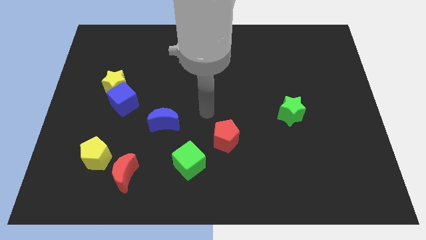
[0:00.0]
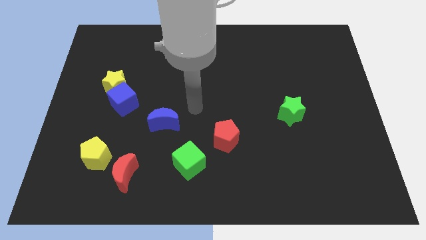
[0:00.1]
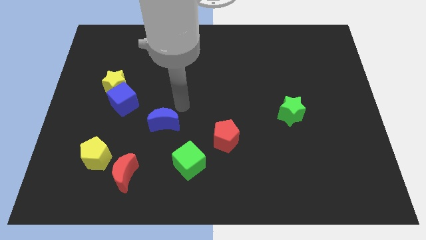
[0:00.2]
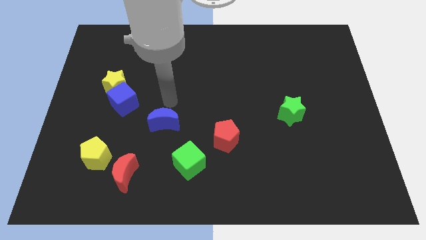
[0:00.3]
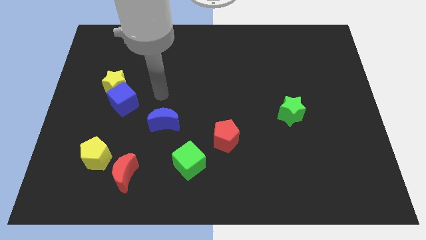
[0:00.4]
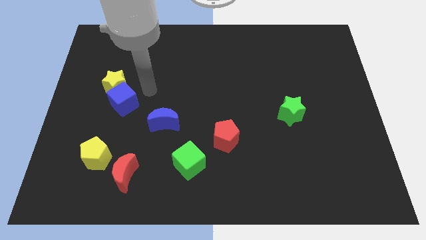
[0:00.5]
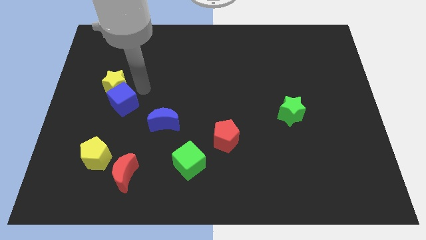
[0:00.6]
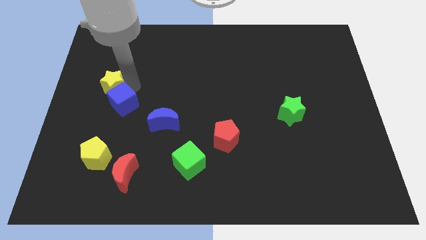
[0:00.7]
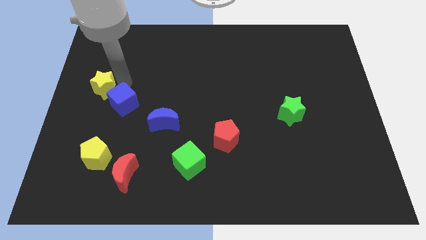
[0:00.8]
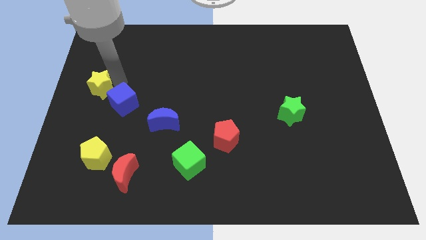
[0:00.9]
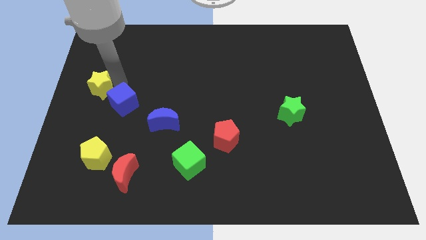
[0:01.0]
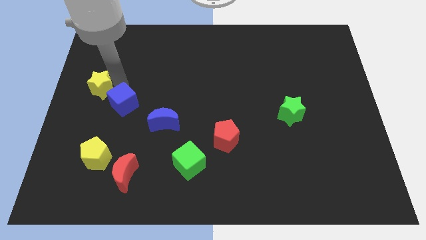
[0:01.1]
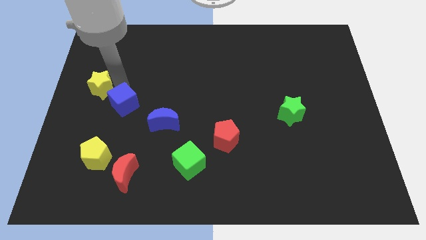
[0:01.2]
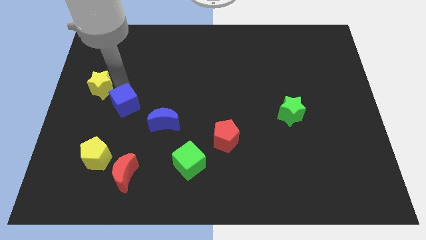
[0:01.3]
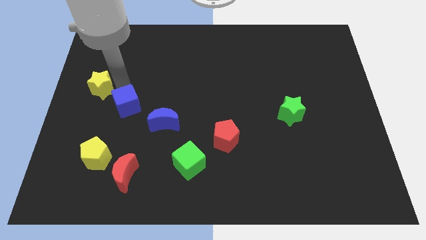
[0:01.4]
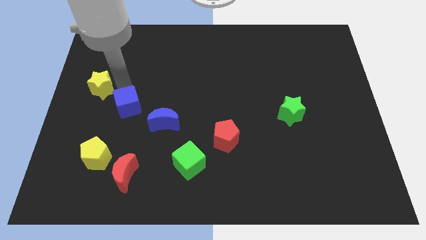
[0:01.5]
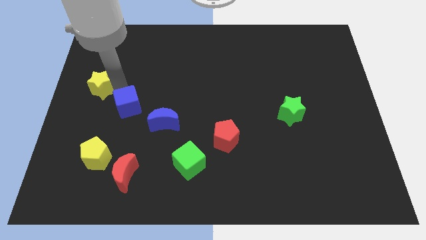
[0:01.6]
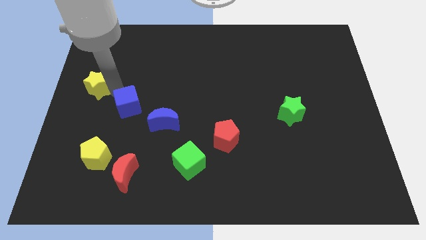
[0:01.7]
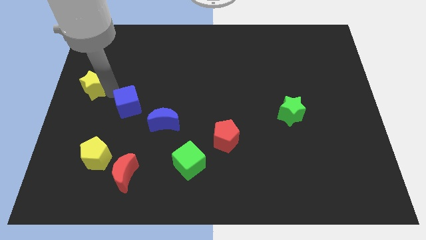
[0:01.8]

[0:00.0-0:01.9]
pull the blue cube apart from the yellow star

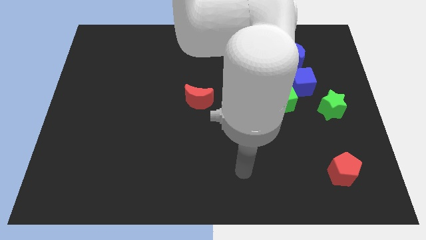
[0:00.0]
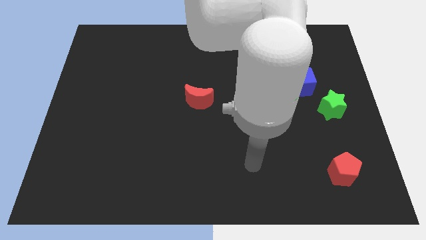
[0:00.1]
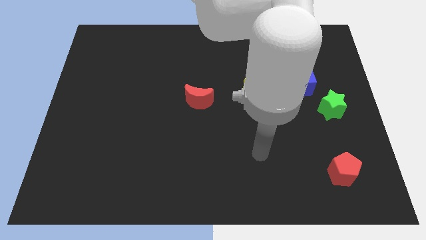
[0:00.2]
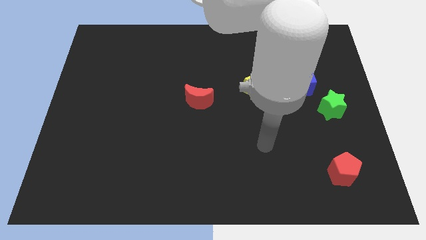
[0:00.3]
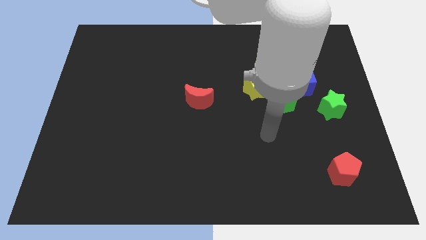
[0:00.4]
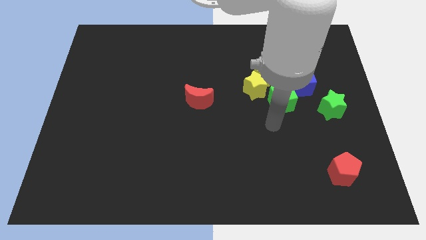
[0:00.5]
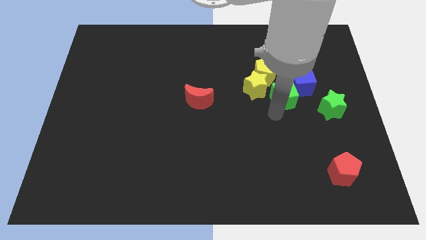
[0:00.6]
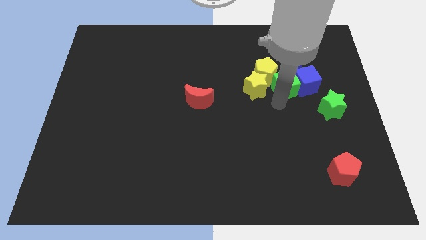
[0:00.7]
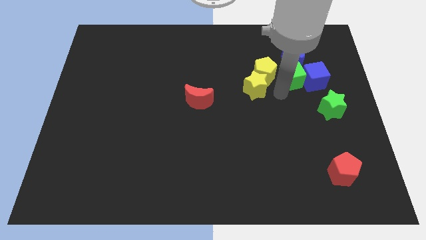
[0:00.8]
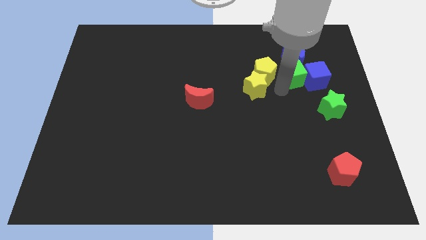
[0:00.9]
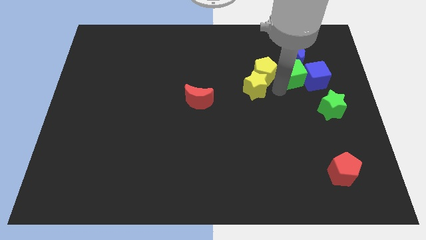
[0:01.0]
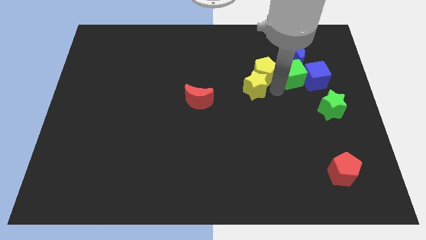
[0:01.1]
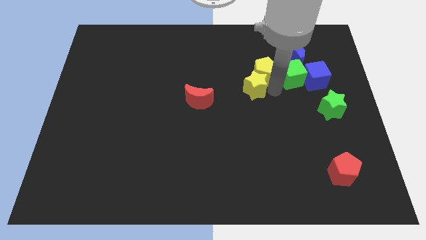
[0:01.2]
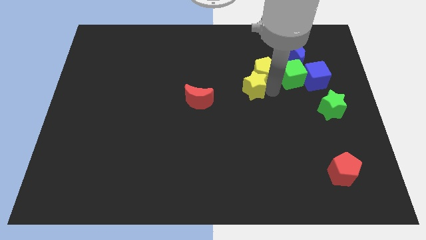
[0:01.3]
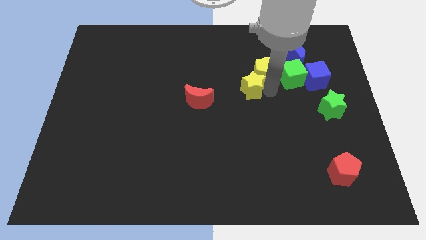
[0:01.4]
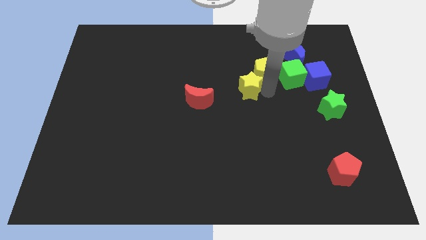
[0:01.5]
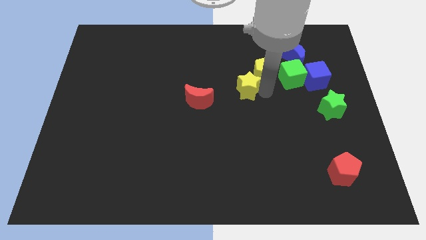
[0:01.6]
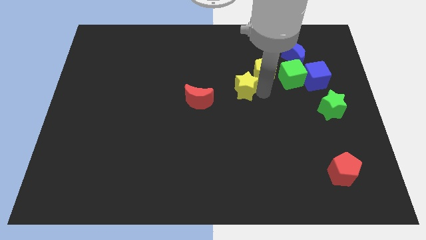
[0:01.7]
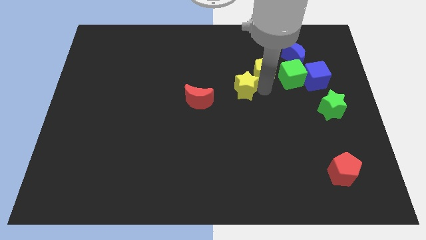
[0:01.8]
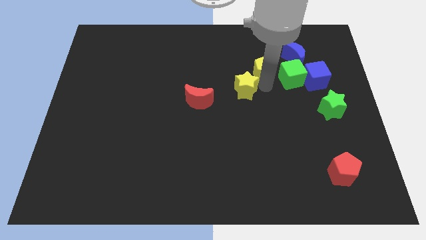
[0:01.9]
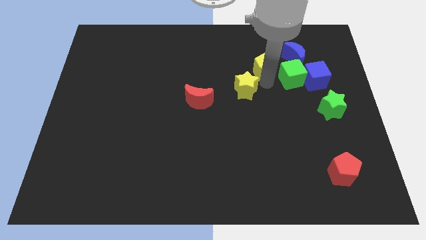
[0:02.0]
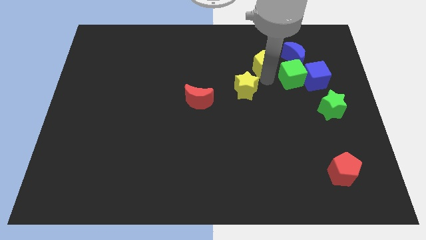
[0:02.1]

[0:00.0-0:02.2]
pull the yellow star apart from the yellow pentagon and green cube

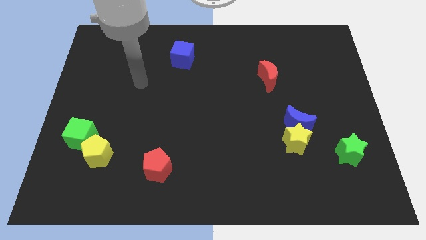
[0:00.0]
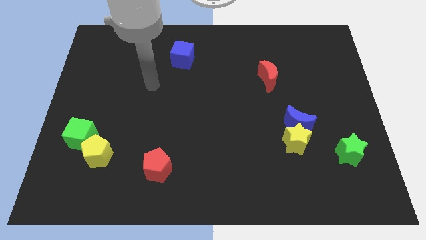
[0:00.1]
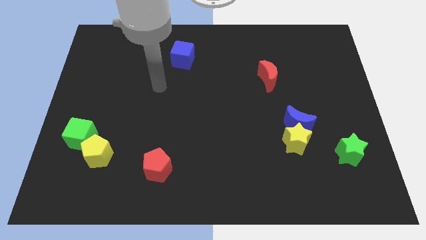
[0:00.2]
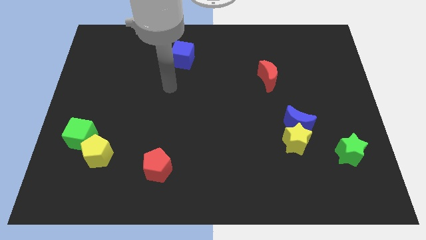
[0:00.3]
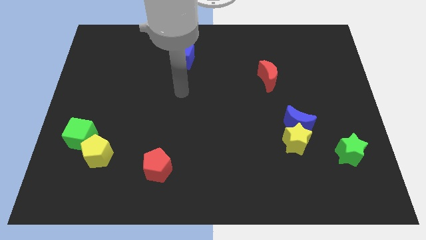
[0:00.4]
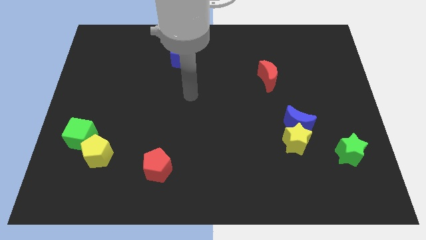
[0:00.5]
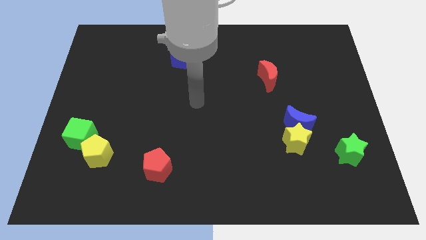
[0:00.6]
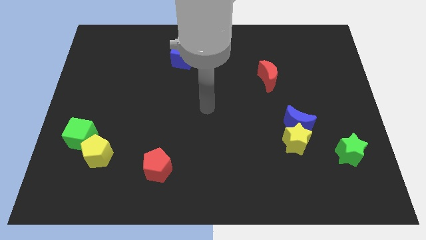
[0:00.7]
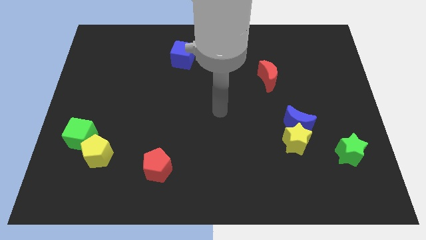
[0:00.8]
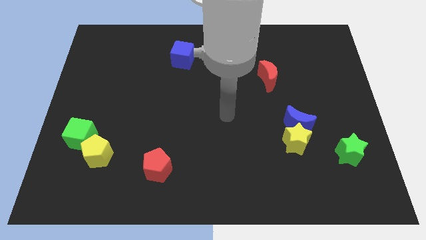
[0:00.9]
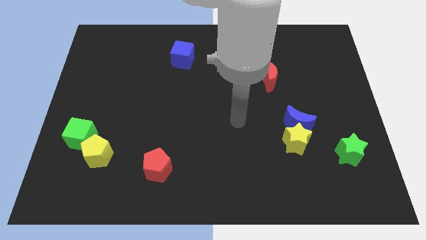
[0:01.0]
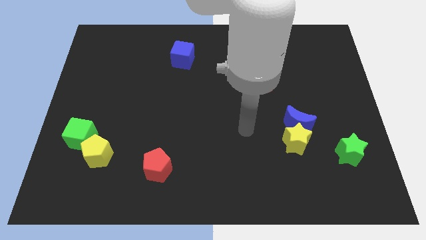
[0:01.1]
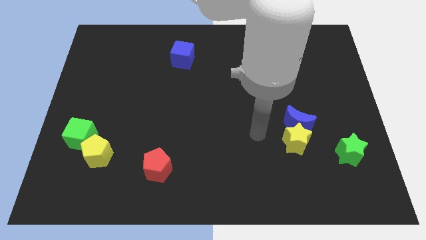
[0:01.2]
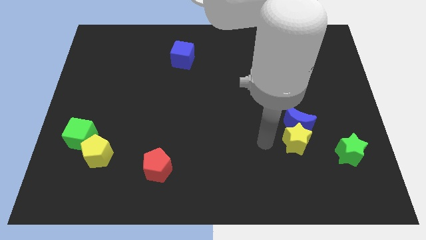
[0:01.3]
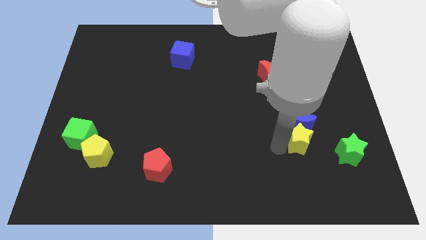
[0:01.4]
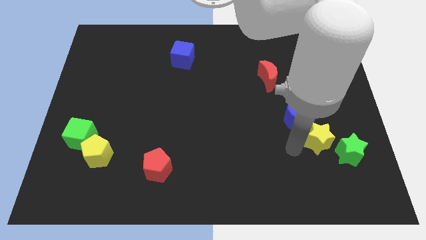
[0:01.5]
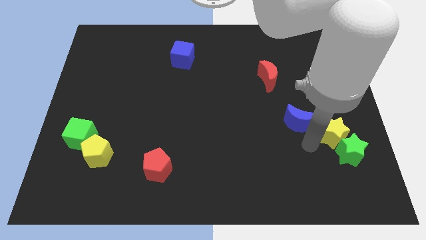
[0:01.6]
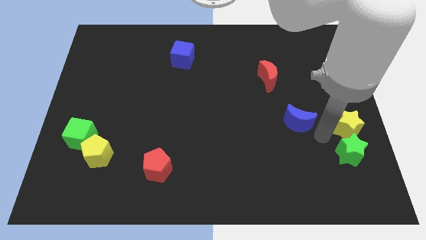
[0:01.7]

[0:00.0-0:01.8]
move the blue moon away from the yellow star

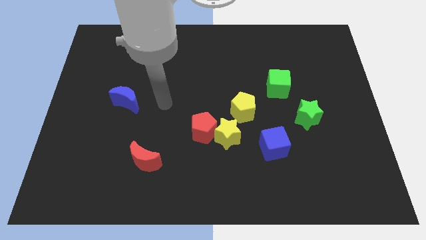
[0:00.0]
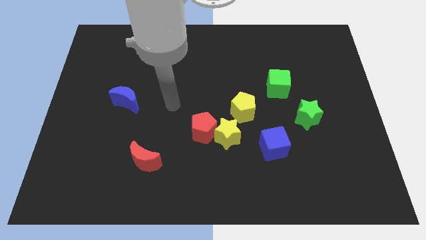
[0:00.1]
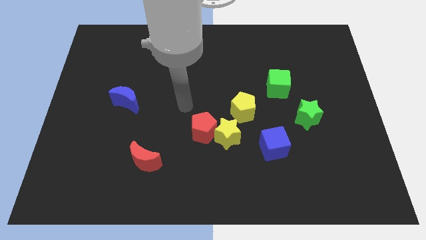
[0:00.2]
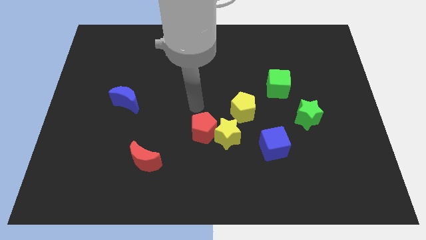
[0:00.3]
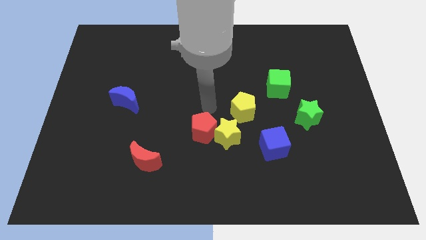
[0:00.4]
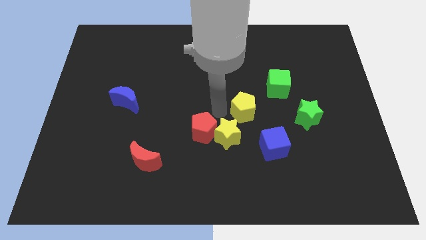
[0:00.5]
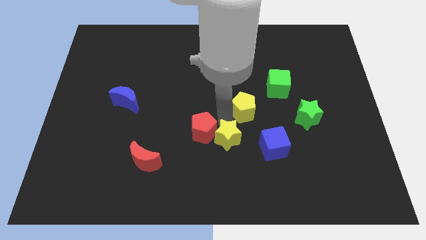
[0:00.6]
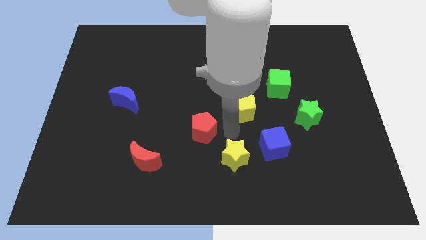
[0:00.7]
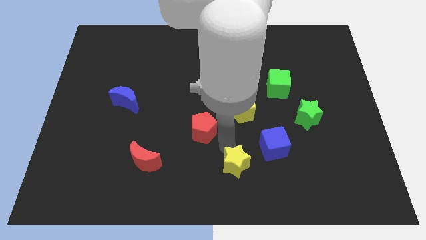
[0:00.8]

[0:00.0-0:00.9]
move the red pentagon away from the yellow star

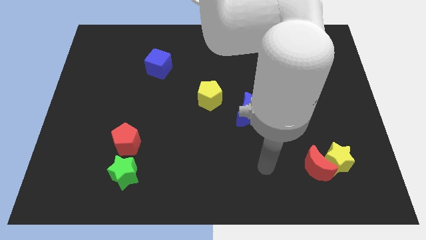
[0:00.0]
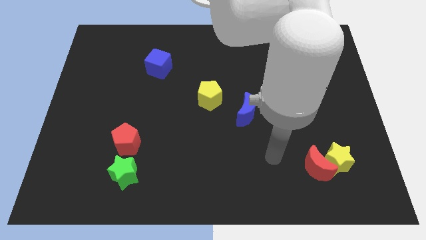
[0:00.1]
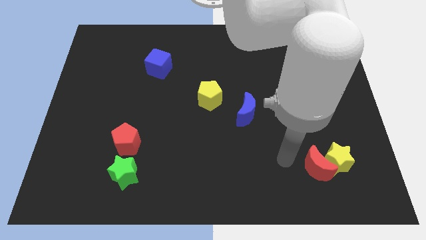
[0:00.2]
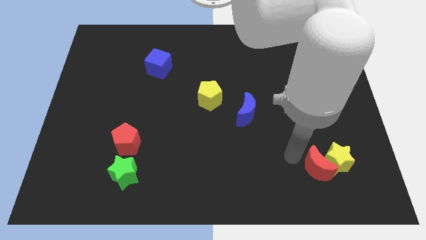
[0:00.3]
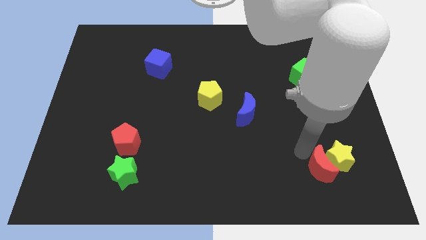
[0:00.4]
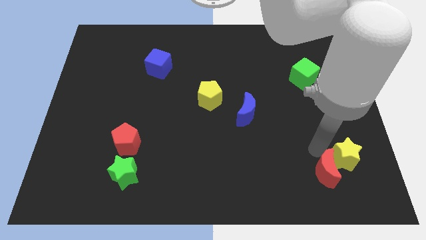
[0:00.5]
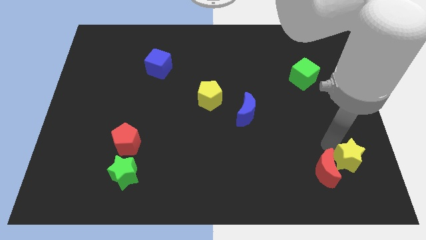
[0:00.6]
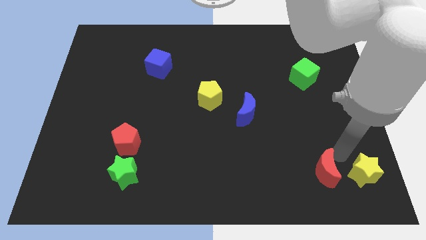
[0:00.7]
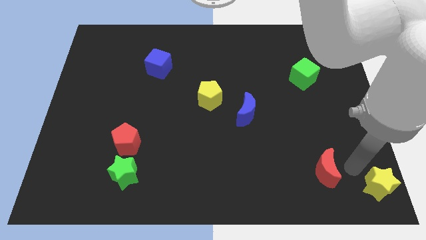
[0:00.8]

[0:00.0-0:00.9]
move the red moon away from the yellow star

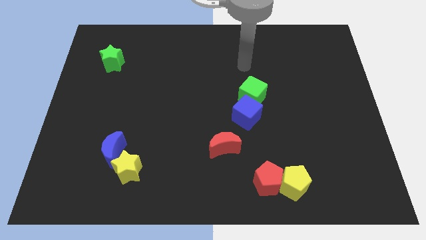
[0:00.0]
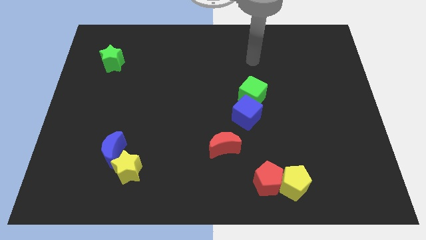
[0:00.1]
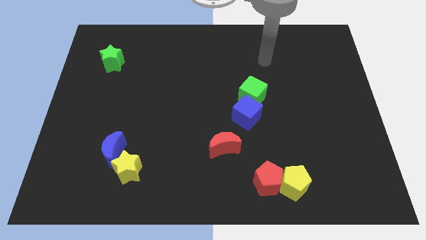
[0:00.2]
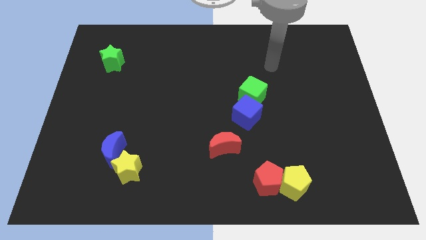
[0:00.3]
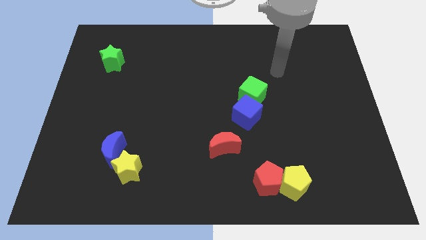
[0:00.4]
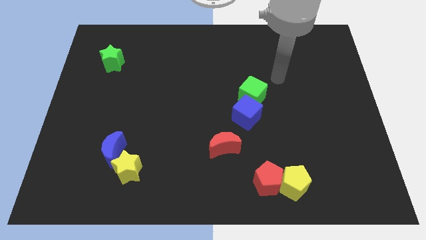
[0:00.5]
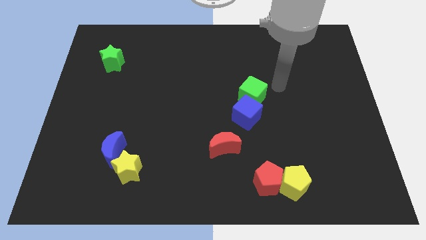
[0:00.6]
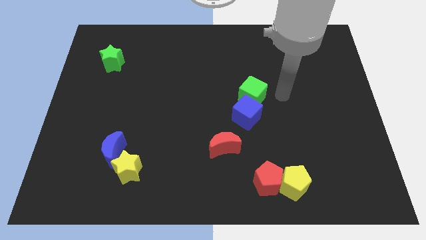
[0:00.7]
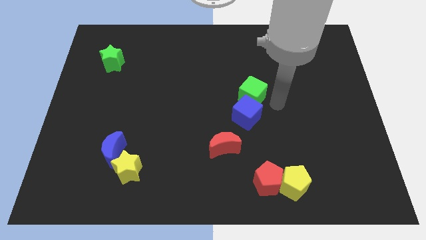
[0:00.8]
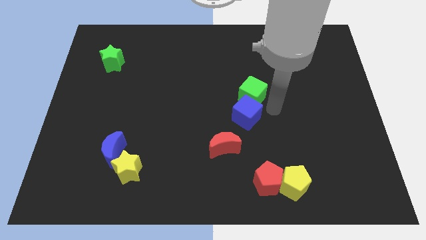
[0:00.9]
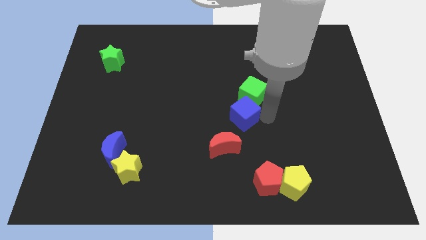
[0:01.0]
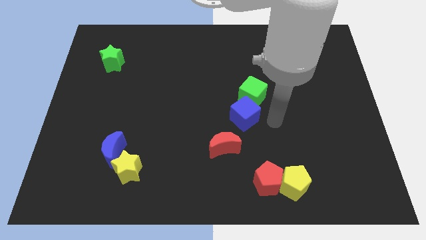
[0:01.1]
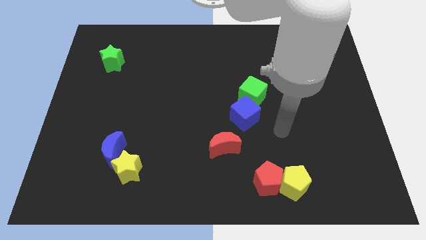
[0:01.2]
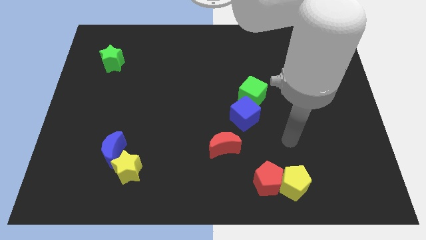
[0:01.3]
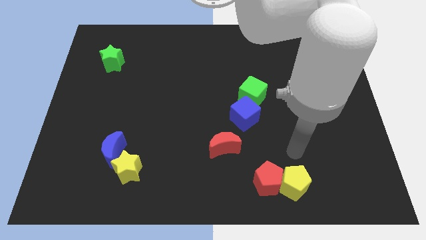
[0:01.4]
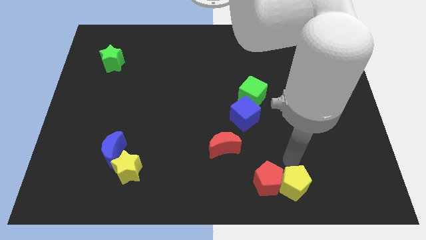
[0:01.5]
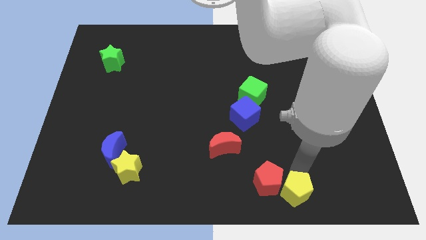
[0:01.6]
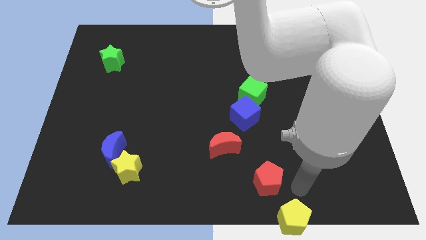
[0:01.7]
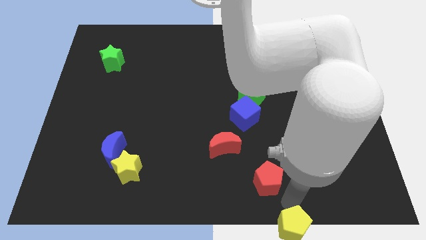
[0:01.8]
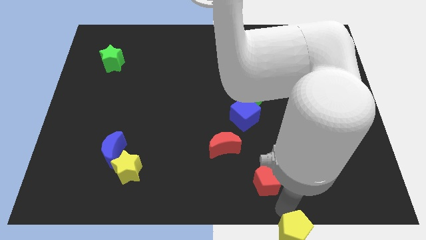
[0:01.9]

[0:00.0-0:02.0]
pull the red pentagon apart from the yellow pentagon
